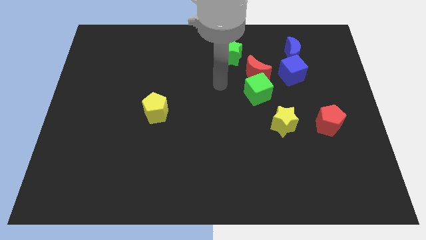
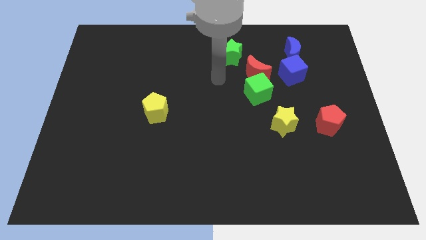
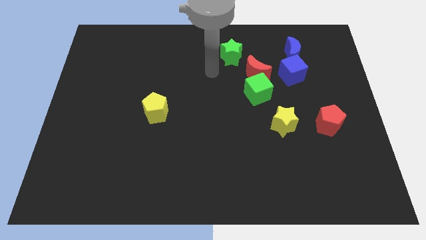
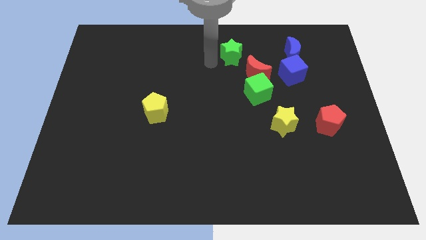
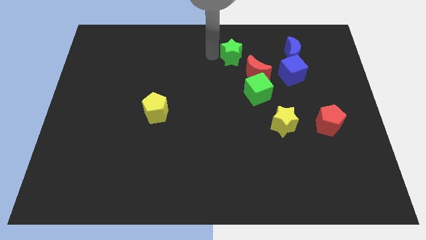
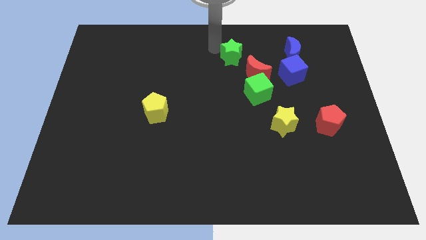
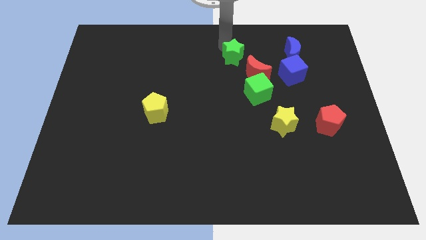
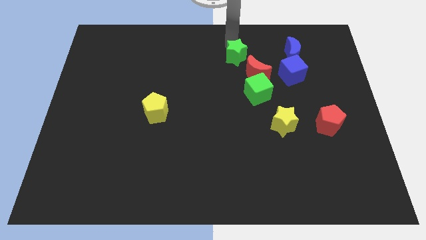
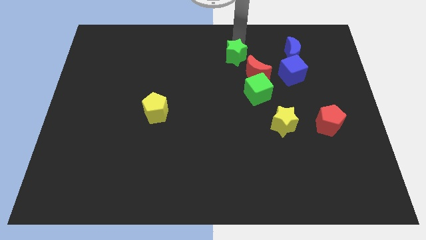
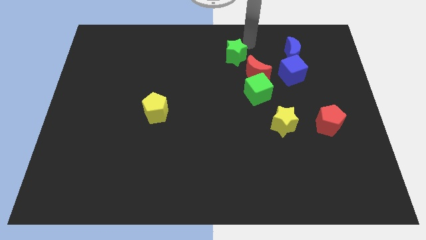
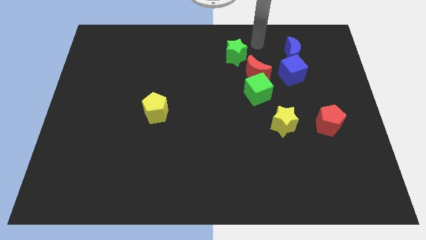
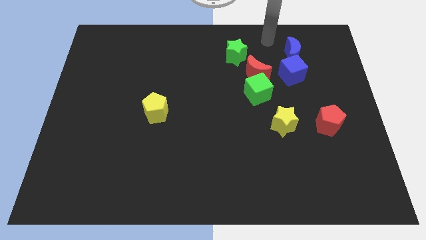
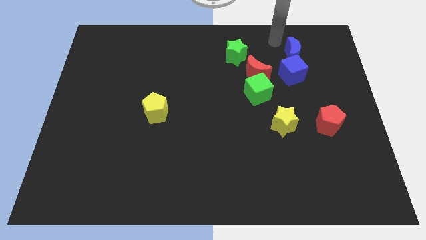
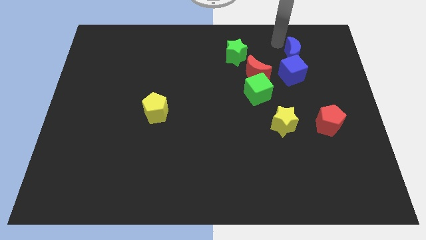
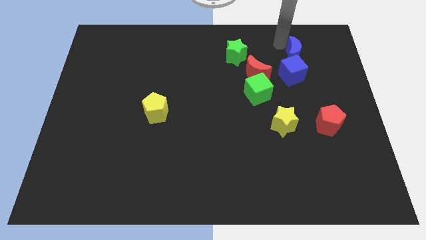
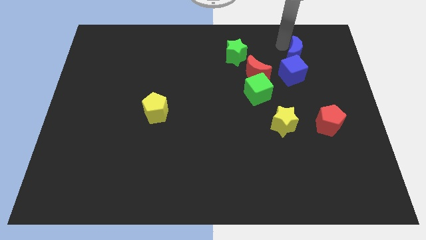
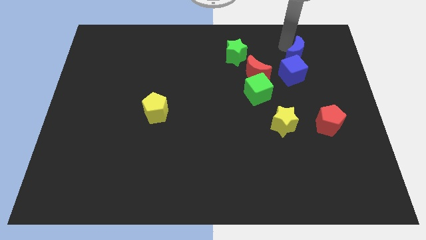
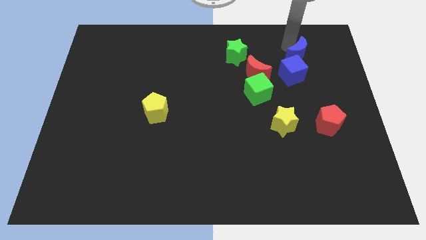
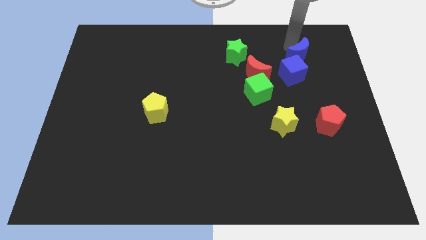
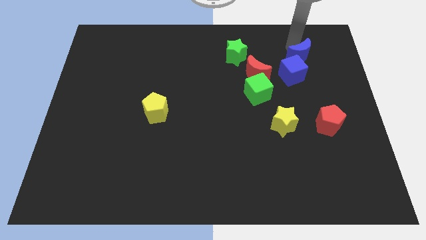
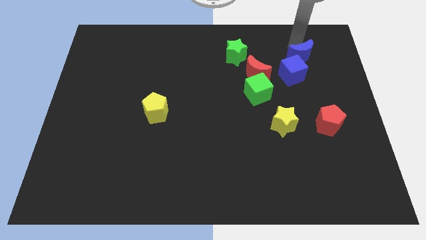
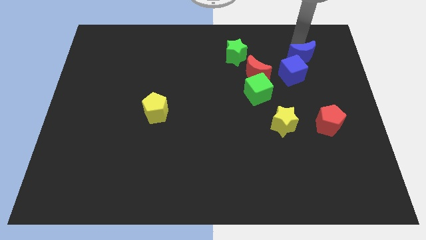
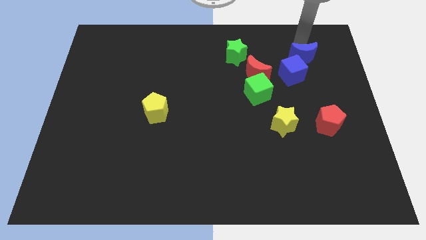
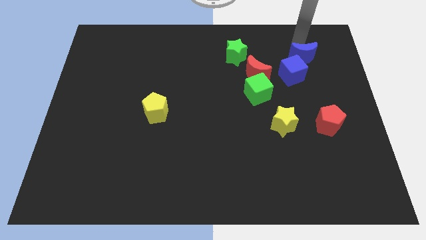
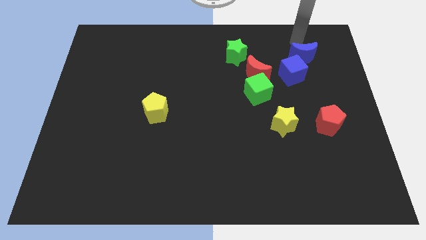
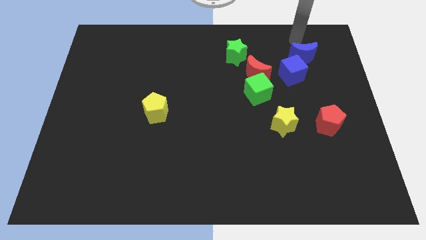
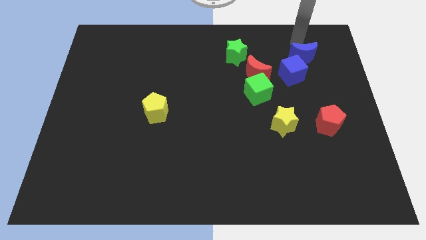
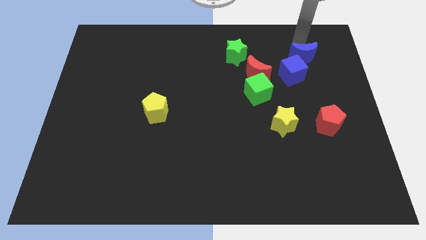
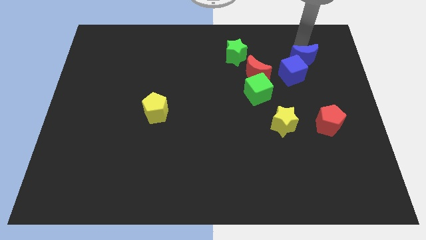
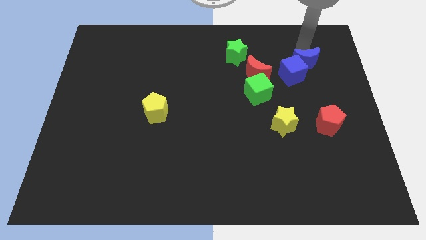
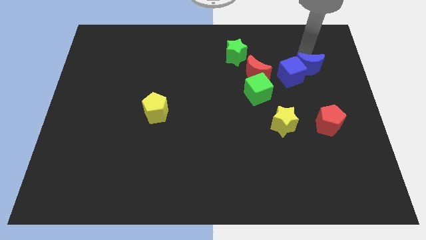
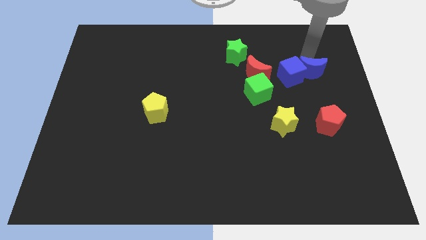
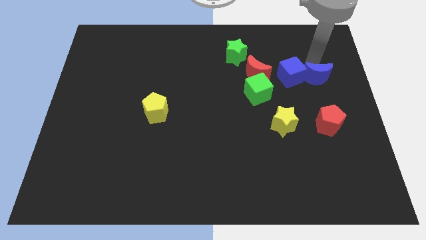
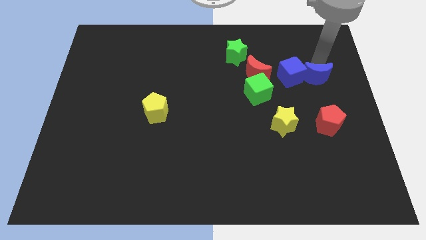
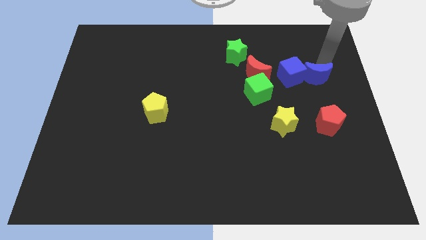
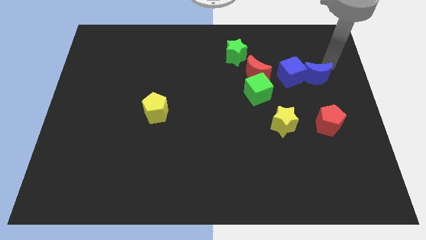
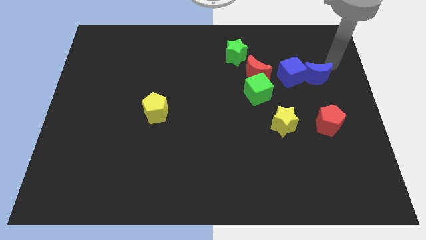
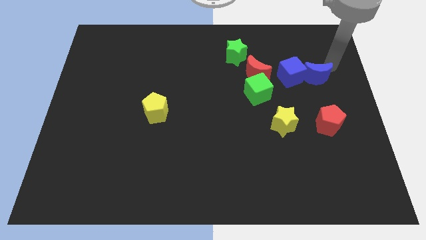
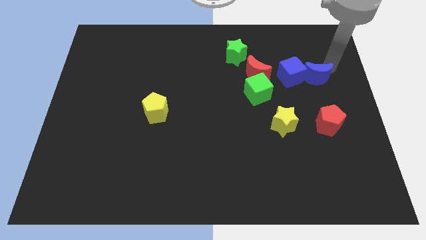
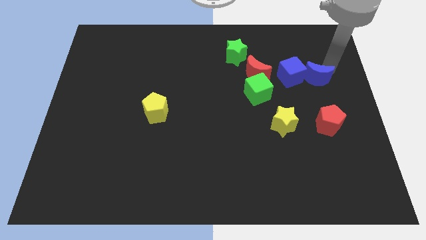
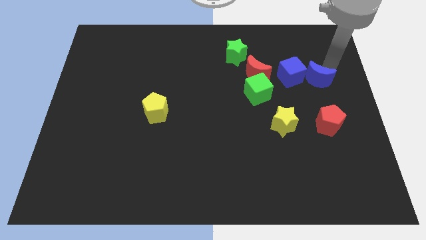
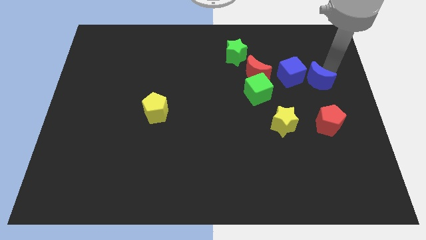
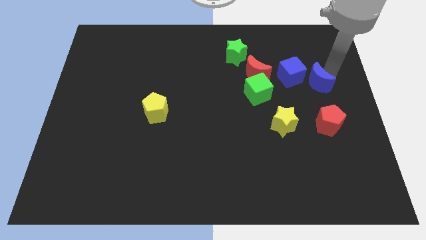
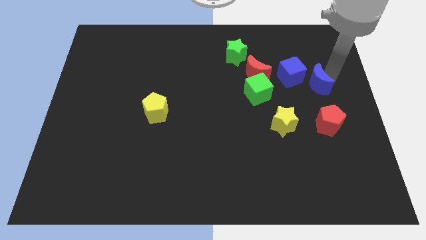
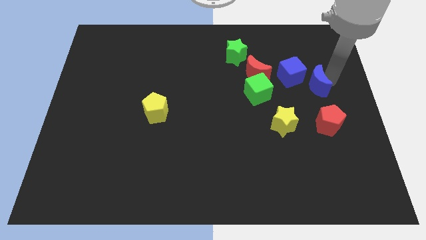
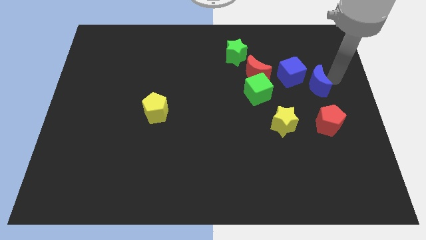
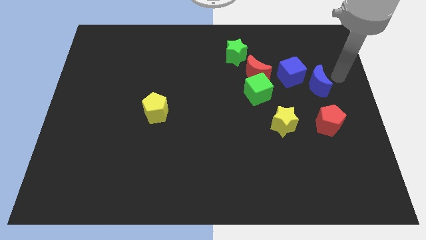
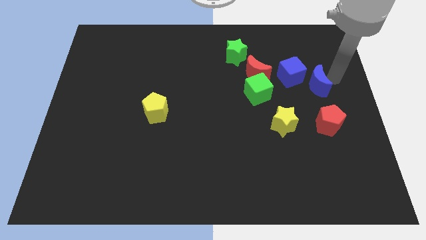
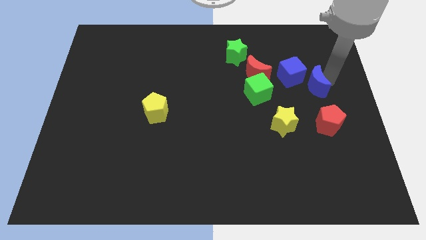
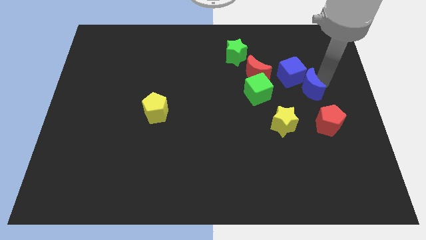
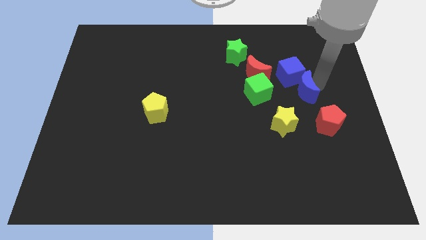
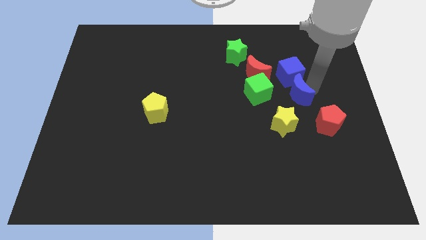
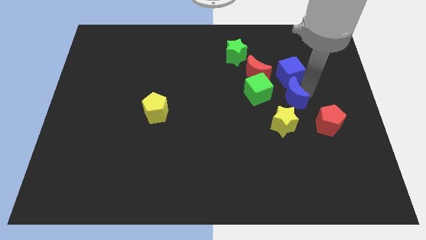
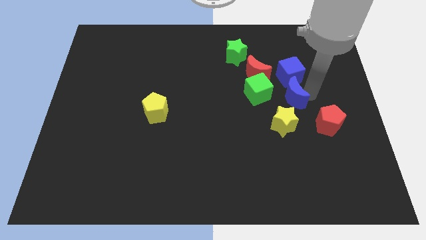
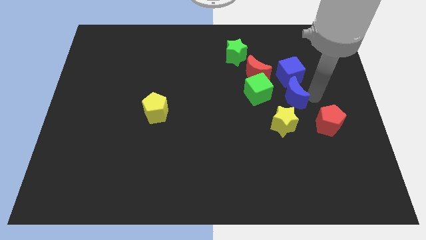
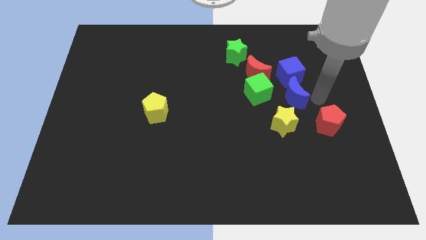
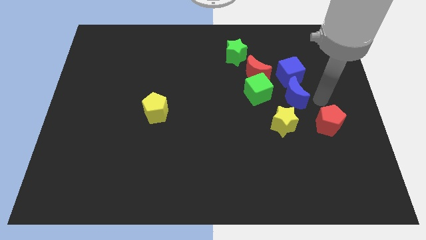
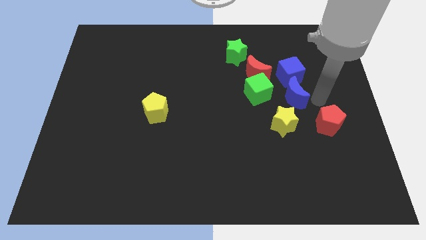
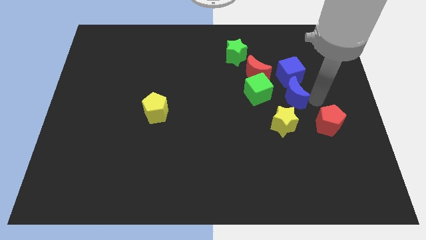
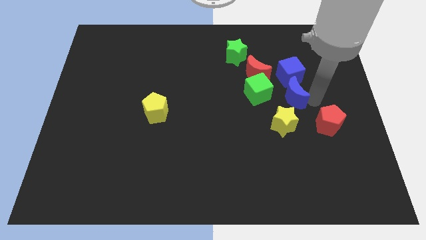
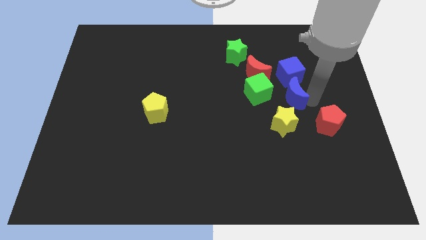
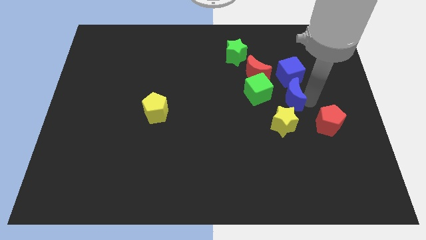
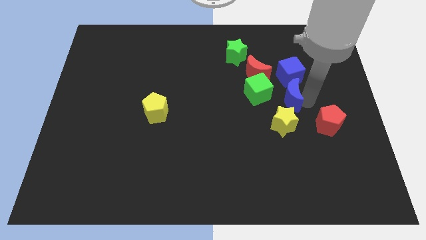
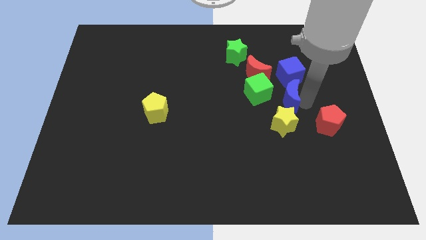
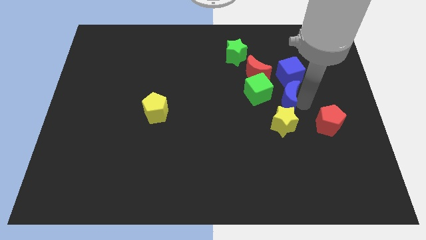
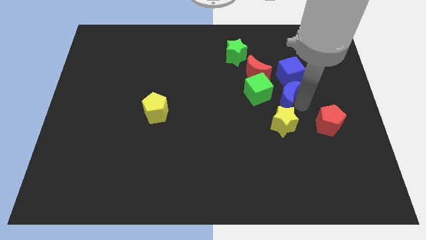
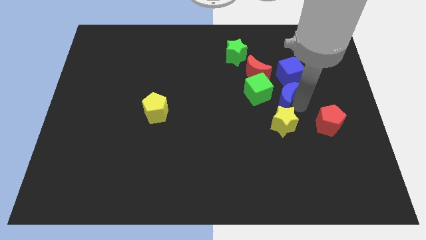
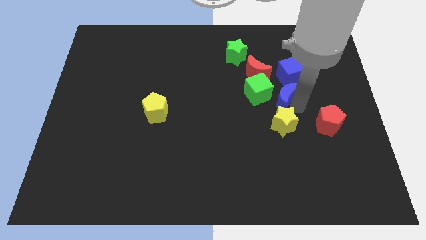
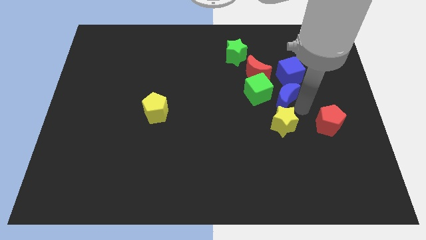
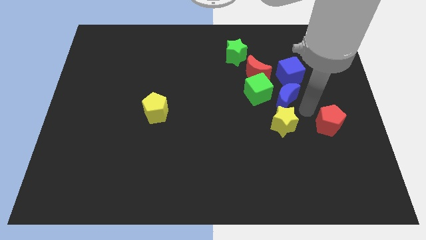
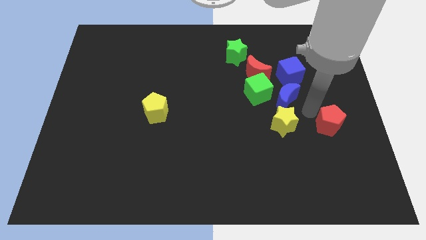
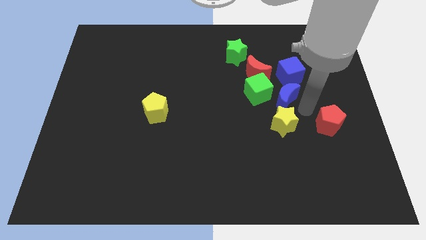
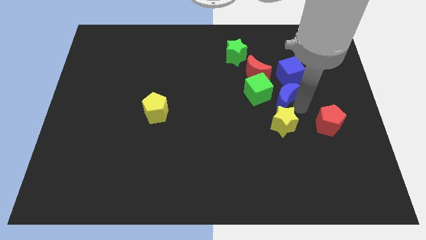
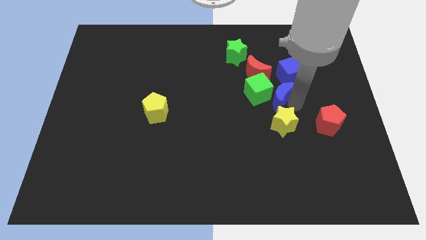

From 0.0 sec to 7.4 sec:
push the blue moon towards the green cube

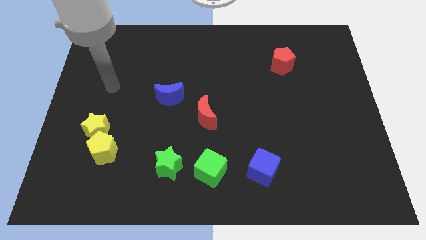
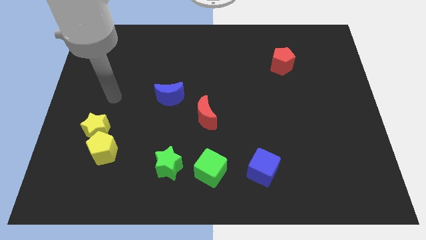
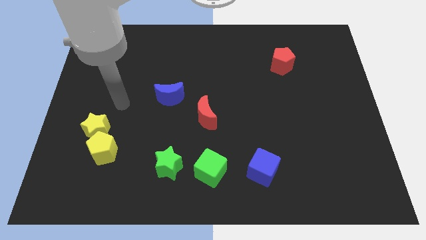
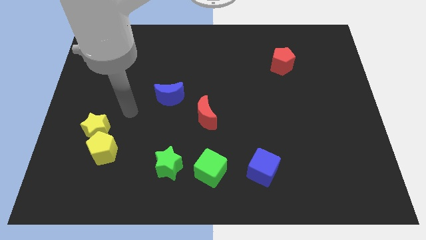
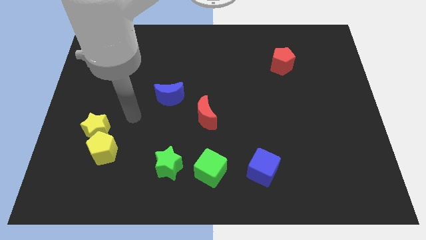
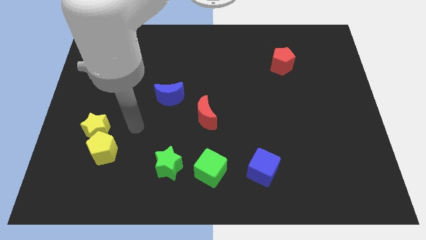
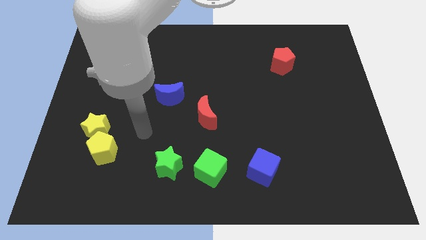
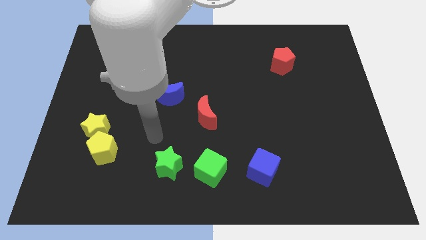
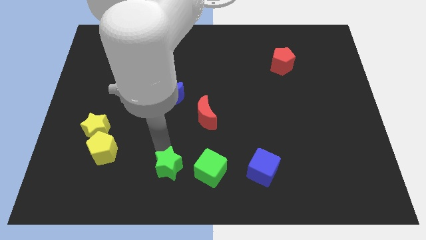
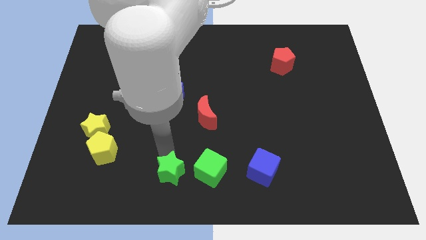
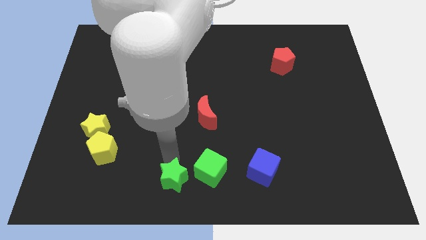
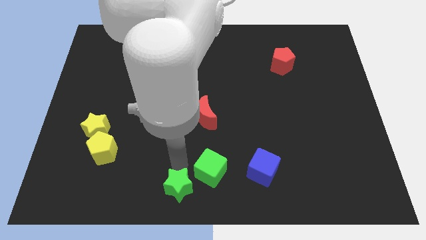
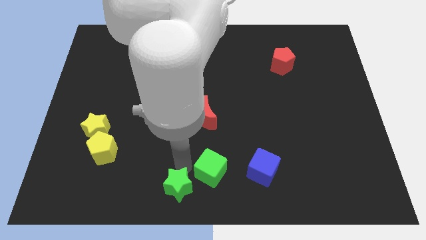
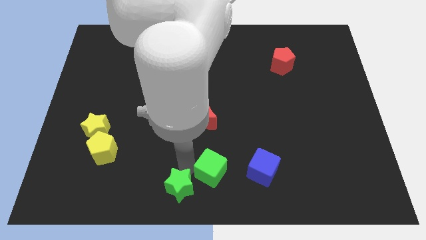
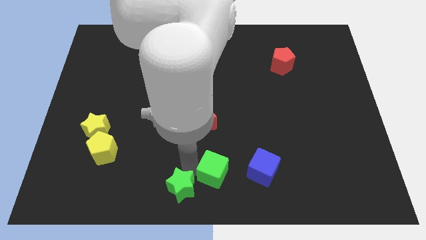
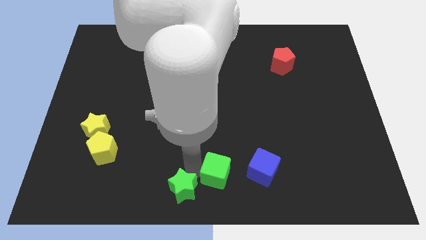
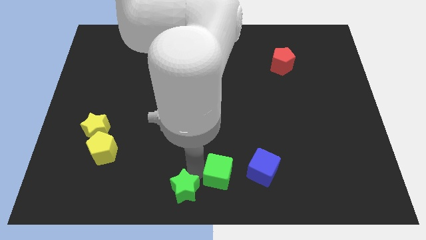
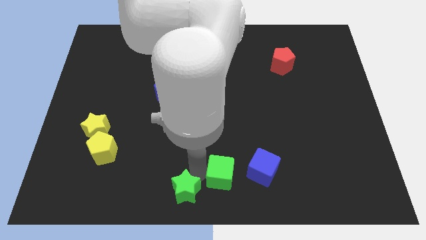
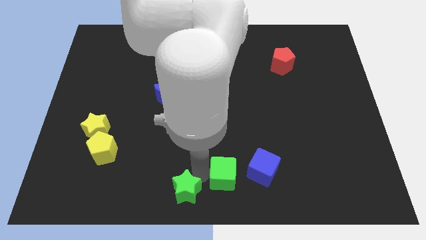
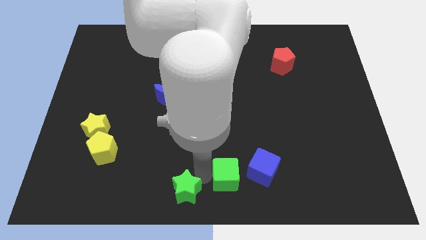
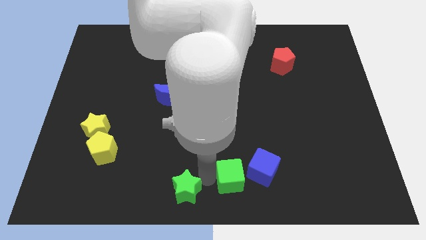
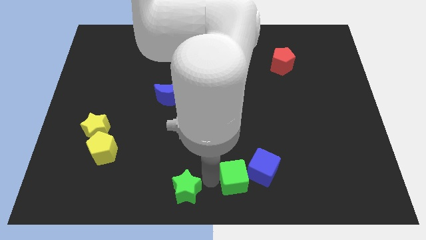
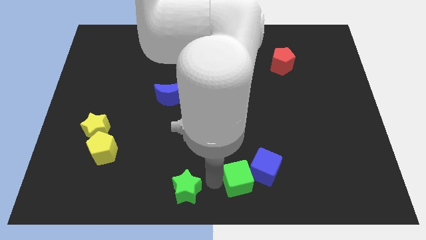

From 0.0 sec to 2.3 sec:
put the green cube to the blue cube
